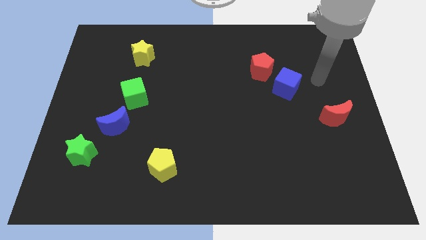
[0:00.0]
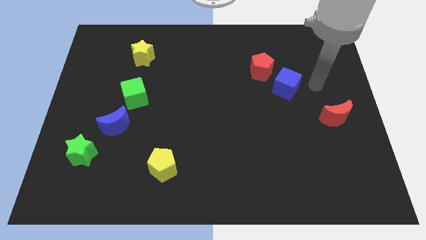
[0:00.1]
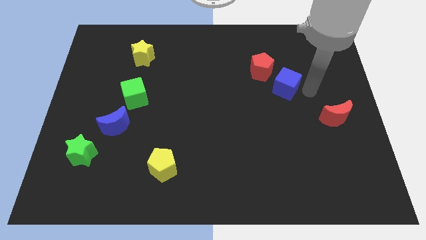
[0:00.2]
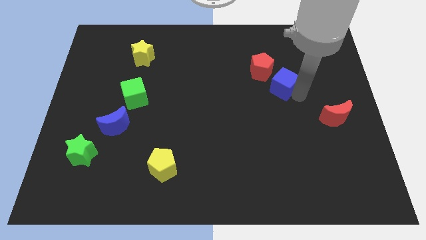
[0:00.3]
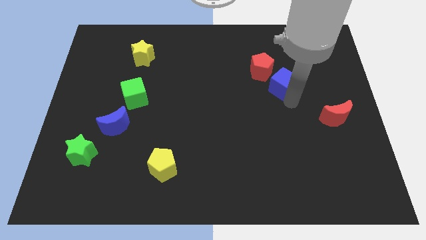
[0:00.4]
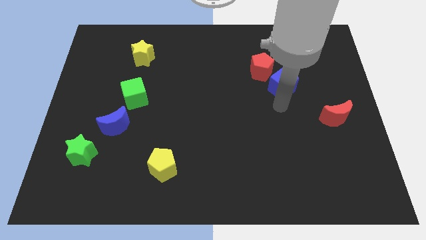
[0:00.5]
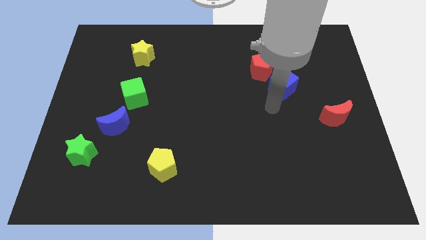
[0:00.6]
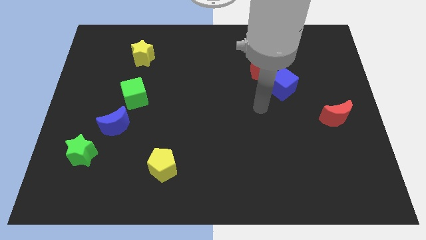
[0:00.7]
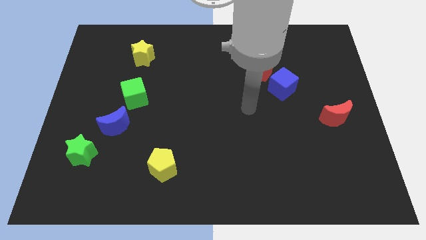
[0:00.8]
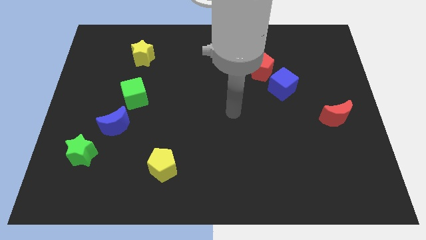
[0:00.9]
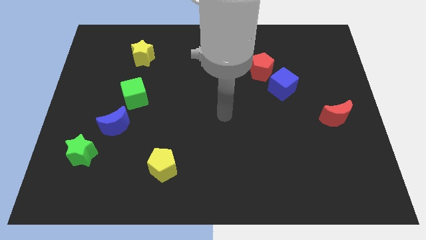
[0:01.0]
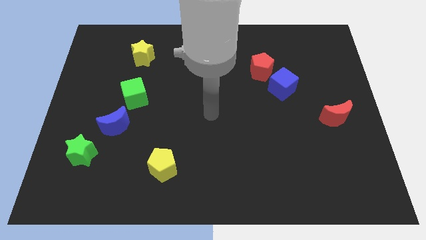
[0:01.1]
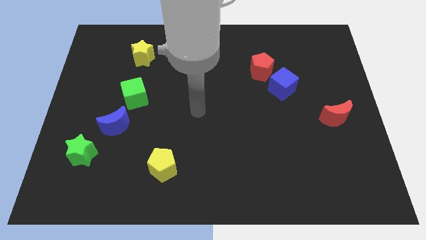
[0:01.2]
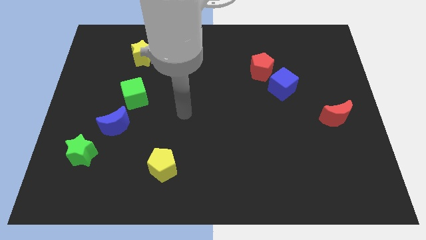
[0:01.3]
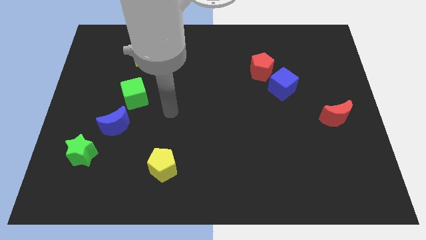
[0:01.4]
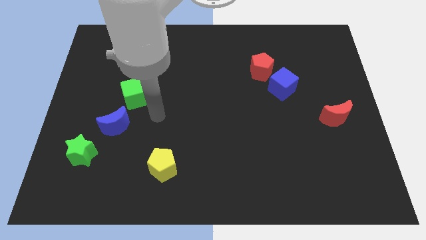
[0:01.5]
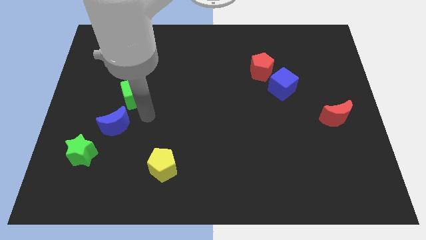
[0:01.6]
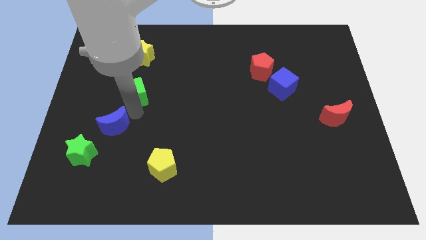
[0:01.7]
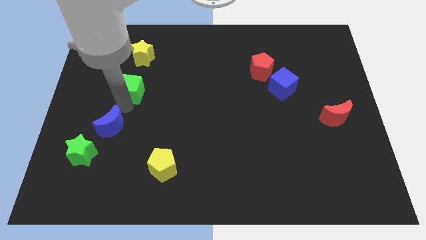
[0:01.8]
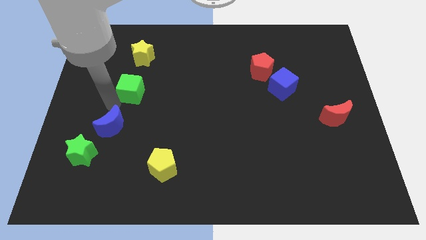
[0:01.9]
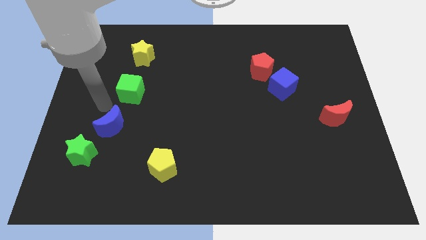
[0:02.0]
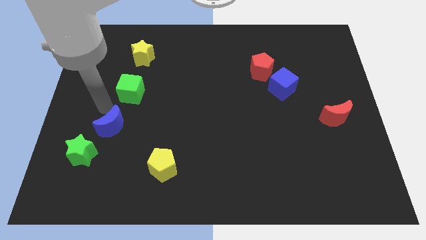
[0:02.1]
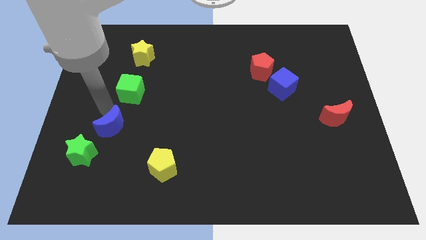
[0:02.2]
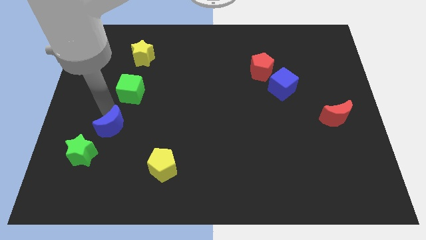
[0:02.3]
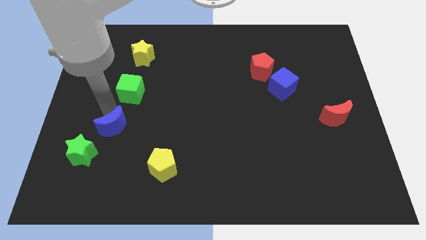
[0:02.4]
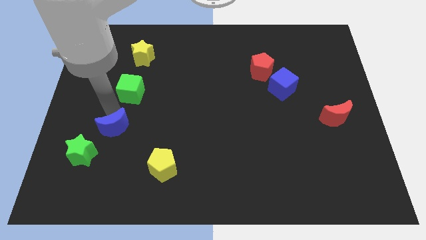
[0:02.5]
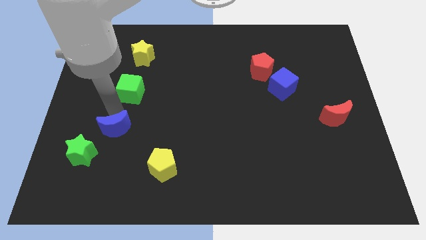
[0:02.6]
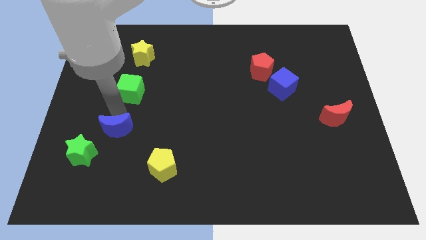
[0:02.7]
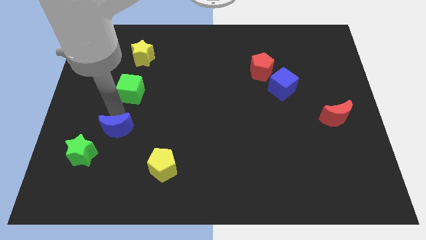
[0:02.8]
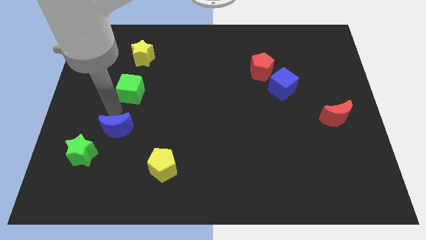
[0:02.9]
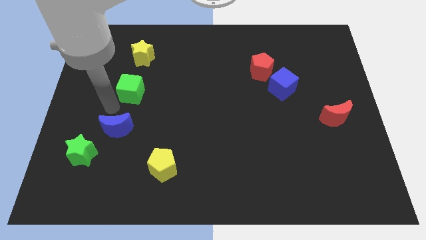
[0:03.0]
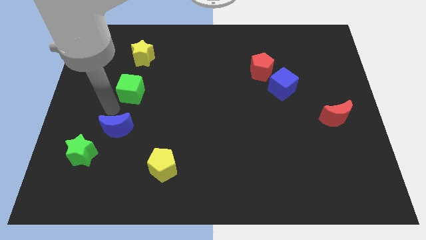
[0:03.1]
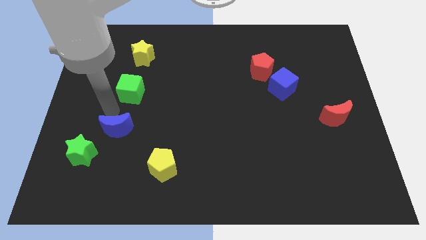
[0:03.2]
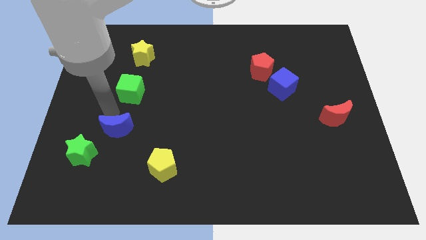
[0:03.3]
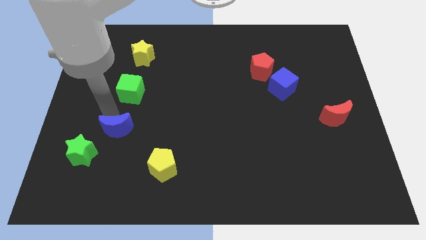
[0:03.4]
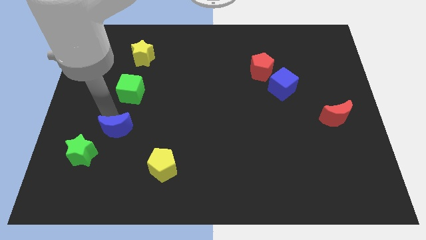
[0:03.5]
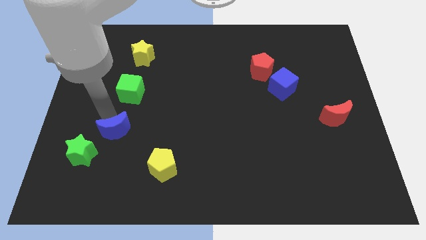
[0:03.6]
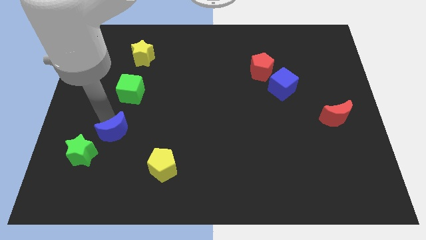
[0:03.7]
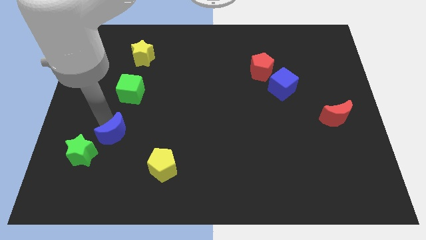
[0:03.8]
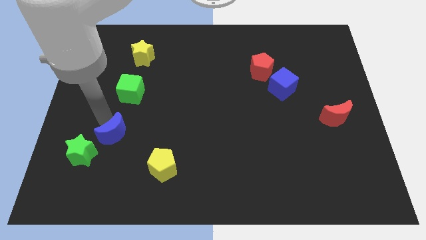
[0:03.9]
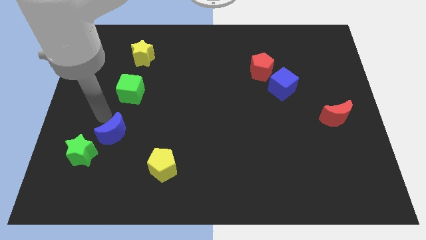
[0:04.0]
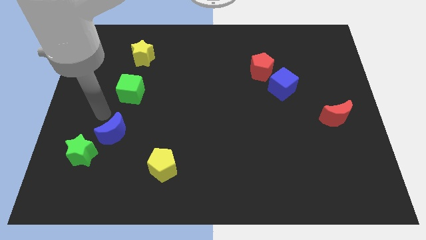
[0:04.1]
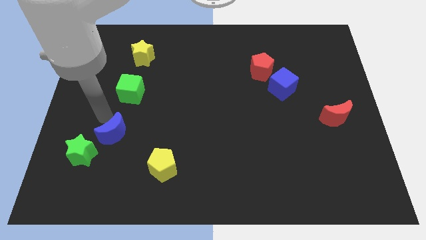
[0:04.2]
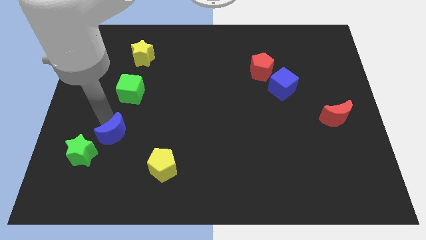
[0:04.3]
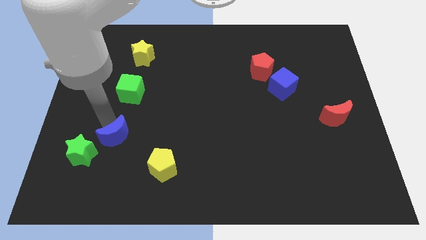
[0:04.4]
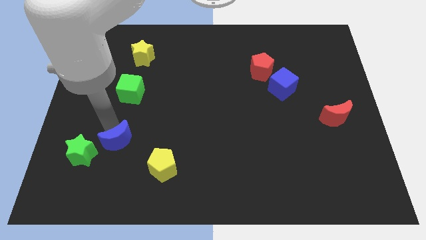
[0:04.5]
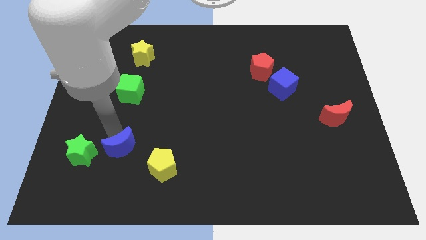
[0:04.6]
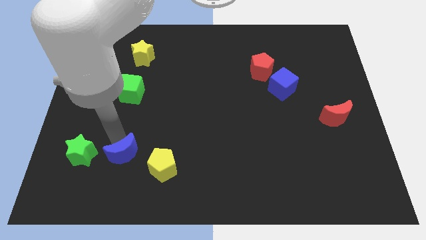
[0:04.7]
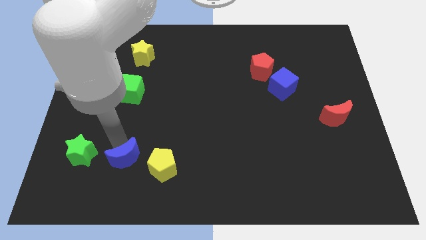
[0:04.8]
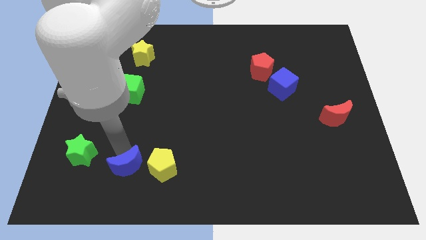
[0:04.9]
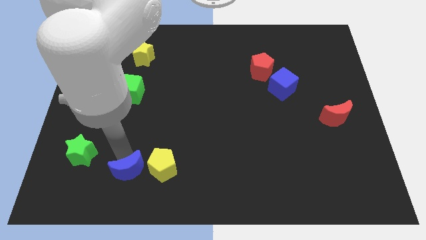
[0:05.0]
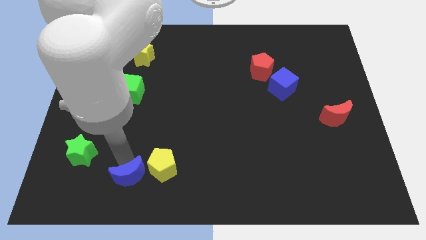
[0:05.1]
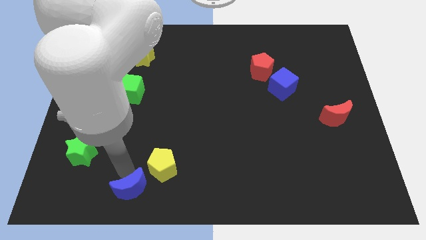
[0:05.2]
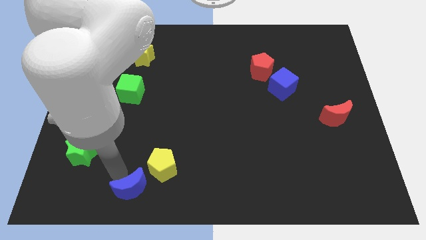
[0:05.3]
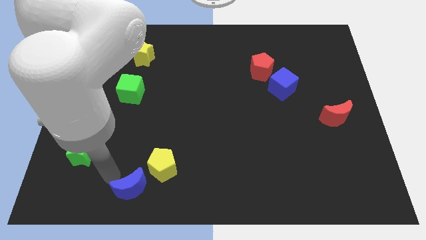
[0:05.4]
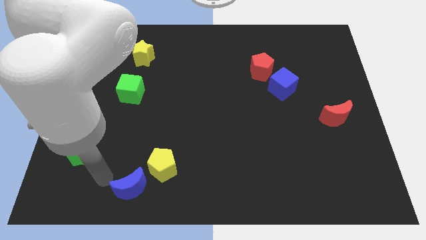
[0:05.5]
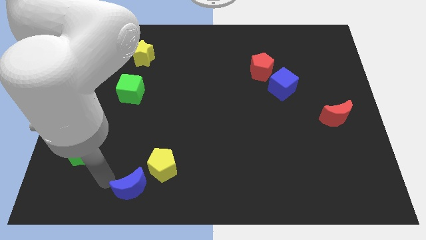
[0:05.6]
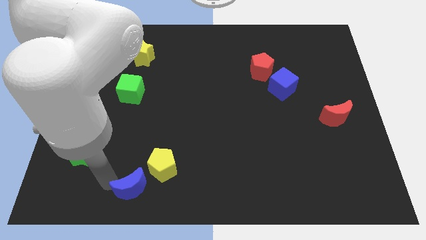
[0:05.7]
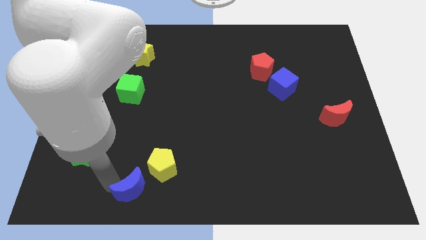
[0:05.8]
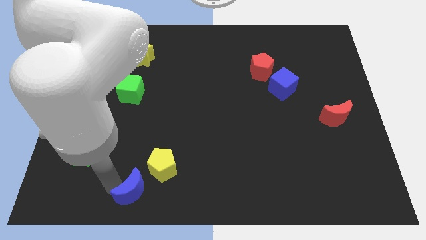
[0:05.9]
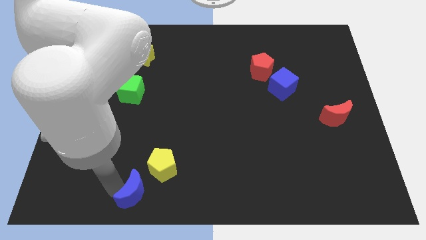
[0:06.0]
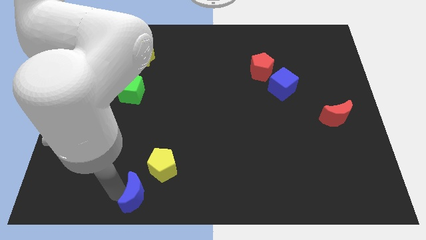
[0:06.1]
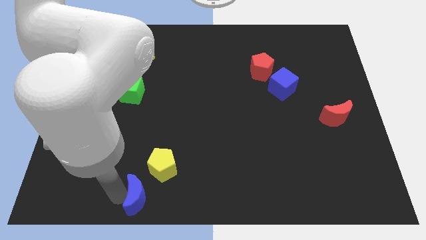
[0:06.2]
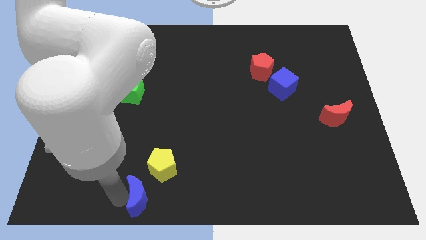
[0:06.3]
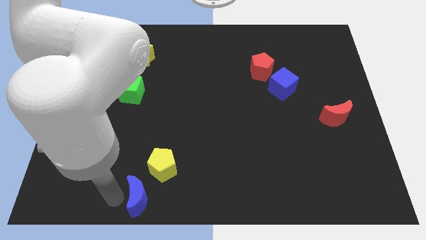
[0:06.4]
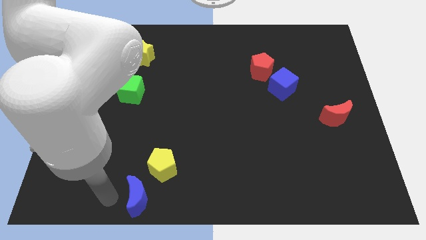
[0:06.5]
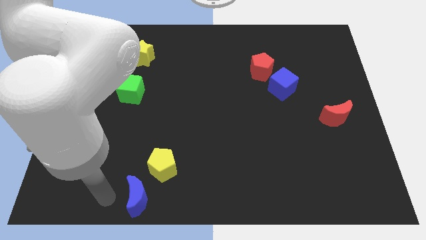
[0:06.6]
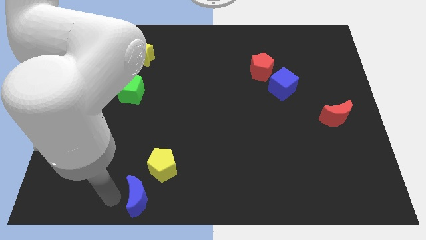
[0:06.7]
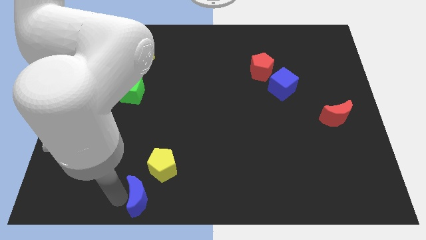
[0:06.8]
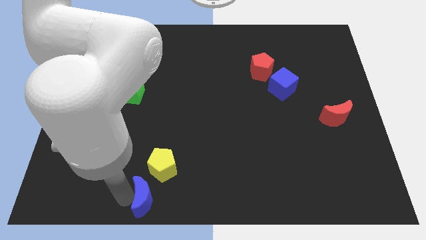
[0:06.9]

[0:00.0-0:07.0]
move the blue moon to the bottom side

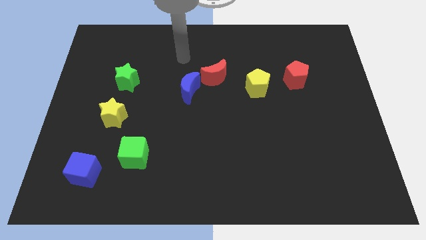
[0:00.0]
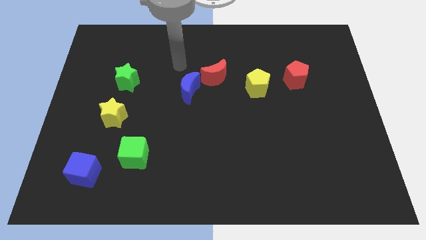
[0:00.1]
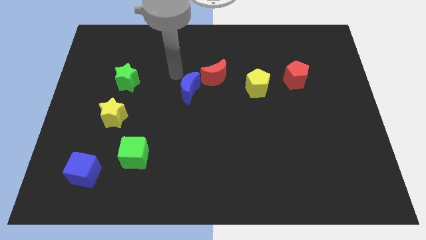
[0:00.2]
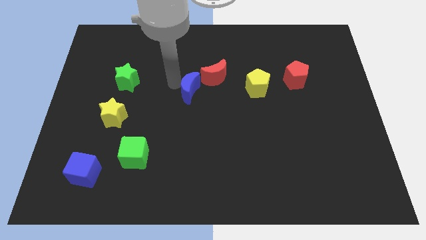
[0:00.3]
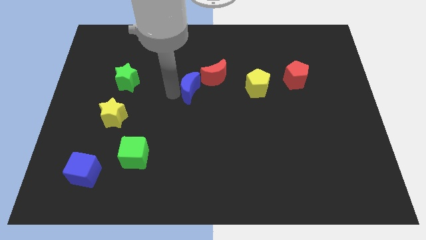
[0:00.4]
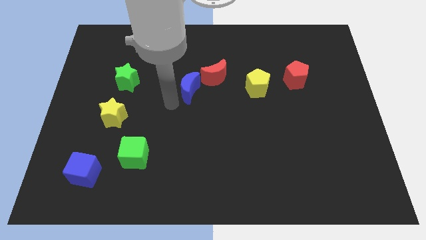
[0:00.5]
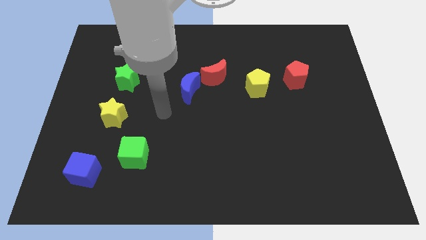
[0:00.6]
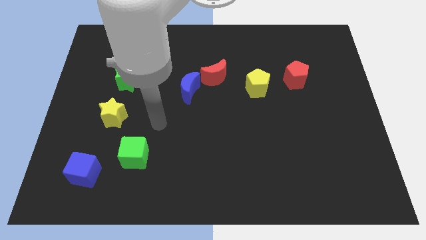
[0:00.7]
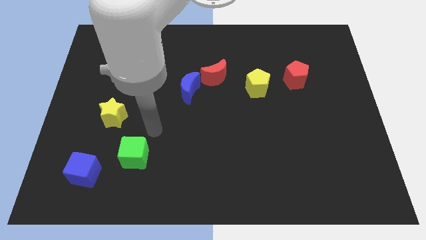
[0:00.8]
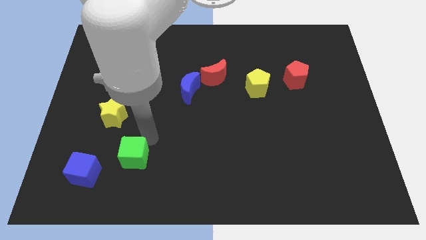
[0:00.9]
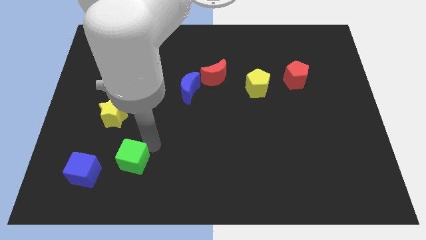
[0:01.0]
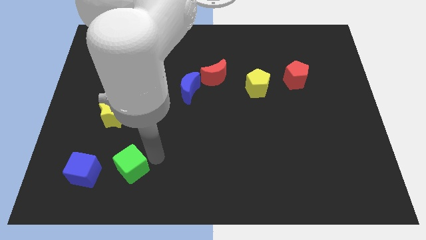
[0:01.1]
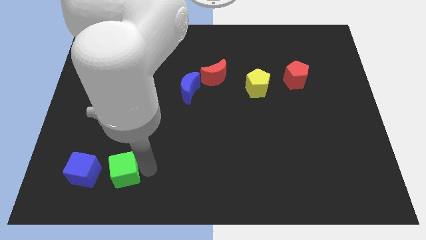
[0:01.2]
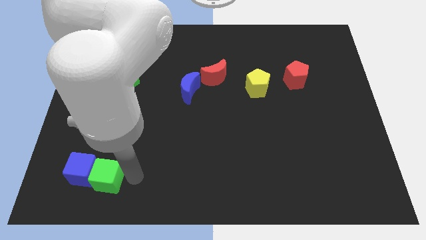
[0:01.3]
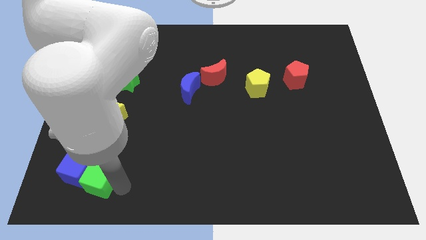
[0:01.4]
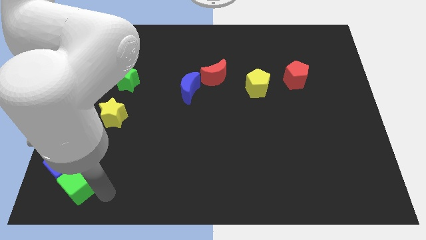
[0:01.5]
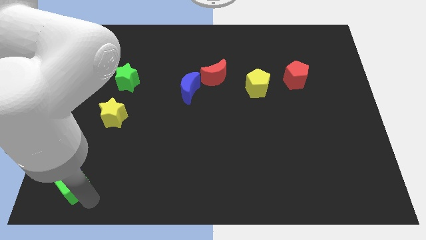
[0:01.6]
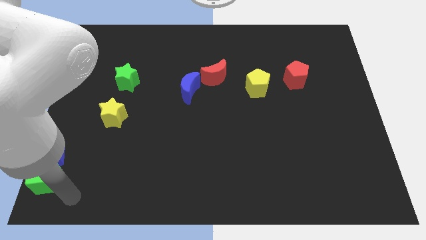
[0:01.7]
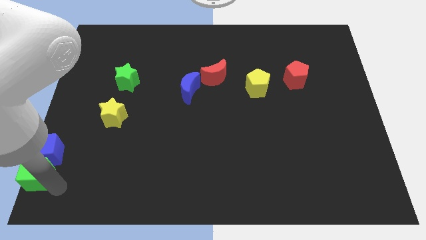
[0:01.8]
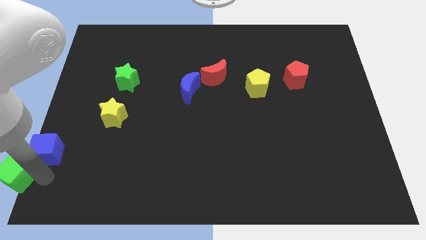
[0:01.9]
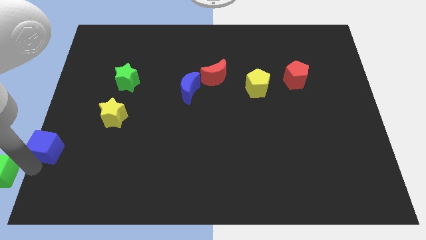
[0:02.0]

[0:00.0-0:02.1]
slide the blue cube to the left side of the board
